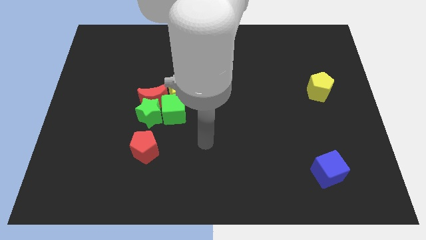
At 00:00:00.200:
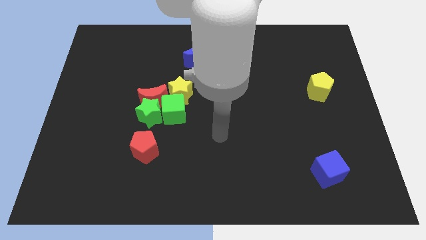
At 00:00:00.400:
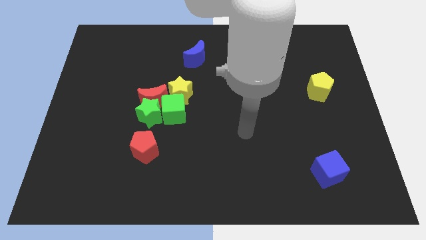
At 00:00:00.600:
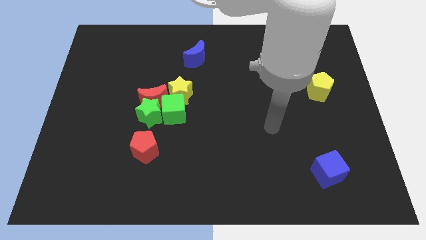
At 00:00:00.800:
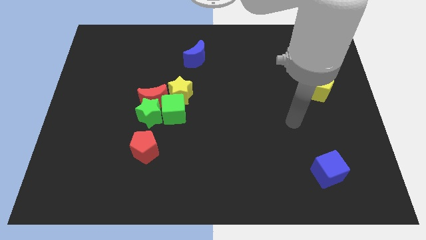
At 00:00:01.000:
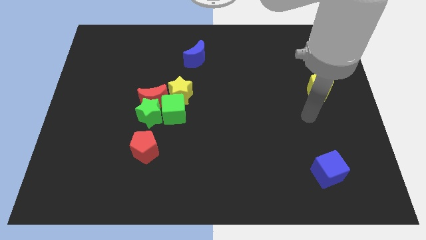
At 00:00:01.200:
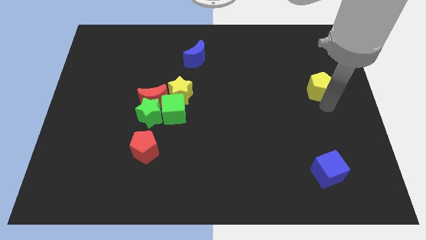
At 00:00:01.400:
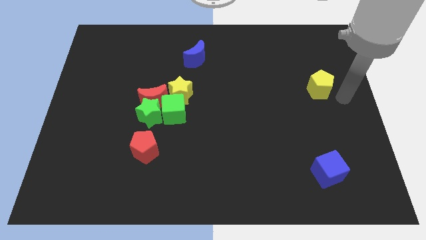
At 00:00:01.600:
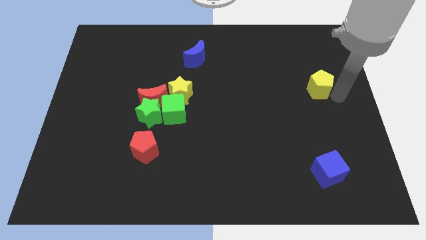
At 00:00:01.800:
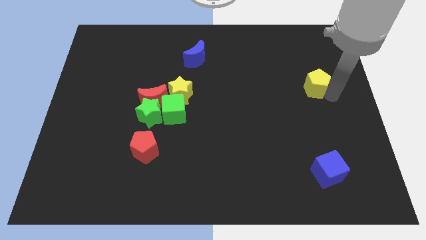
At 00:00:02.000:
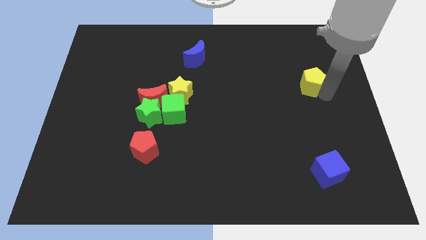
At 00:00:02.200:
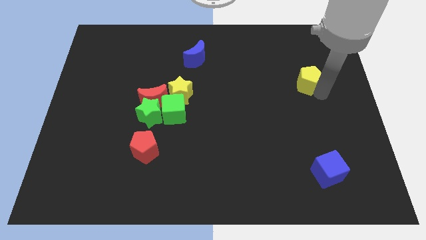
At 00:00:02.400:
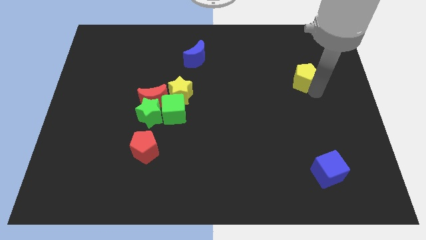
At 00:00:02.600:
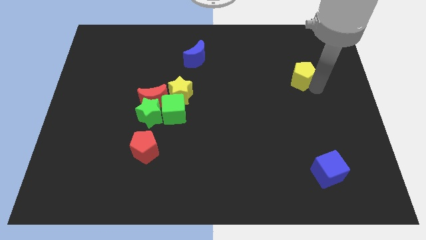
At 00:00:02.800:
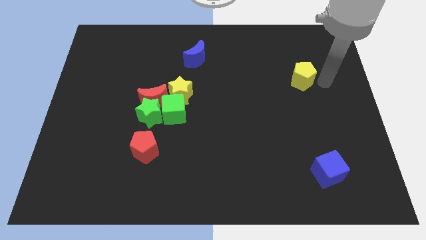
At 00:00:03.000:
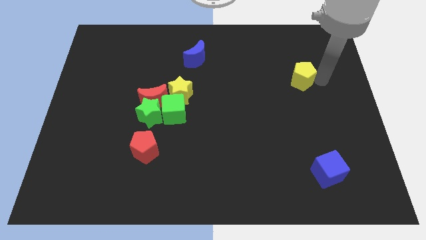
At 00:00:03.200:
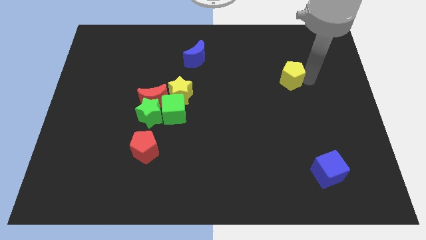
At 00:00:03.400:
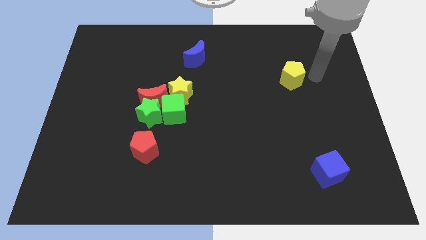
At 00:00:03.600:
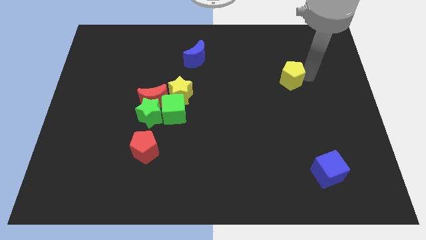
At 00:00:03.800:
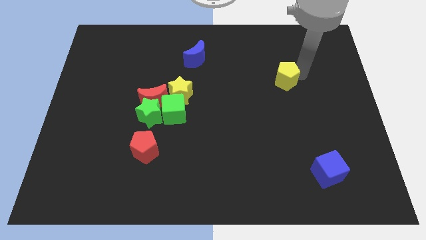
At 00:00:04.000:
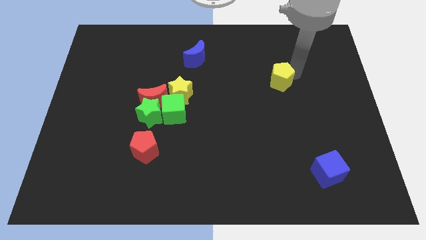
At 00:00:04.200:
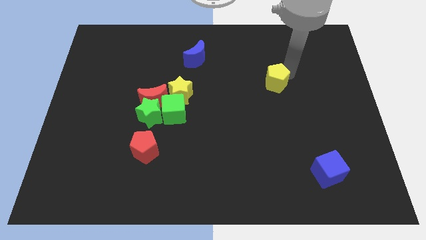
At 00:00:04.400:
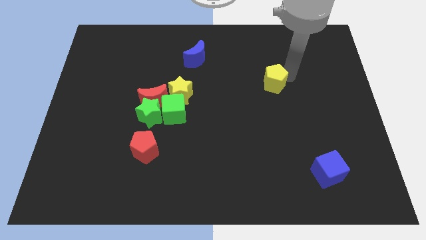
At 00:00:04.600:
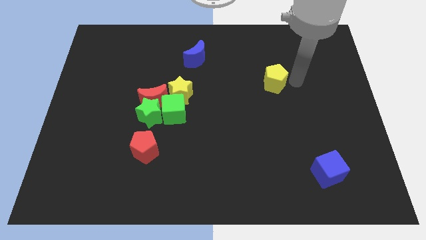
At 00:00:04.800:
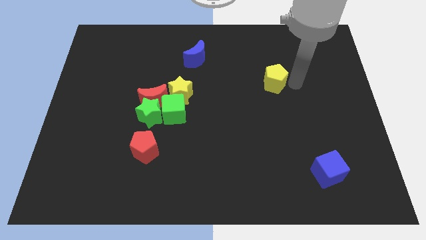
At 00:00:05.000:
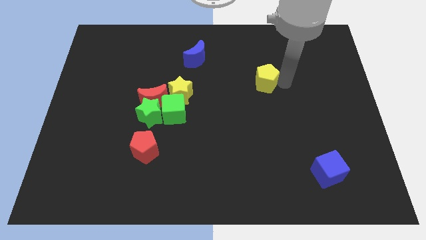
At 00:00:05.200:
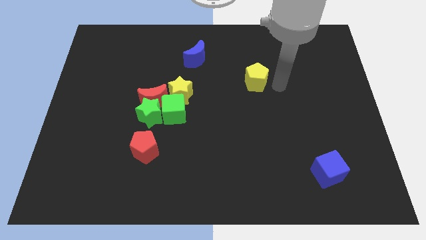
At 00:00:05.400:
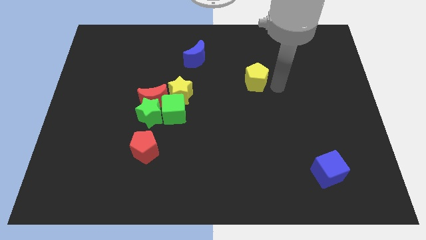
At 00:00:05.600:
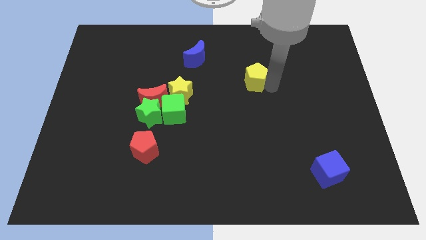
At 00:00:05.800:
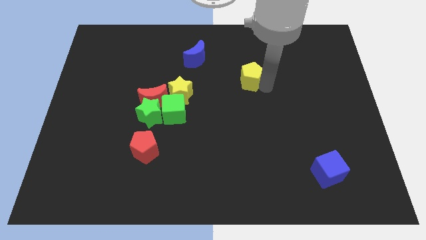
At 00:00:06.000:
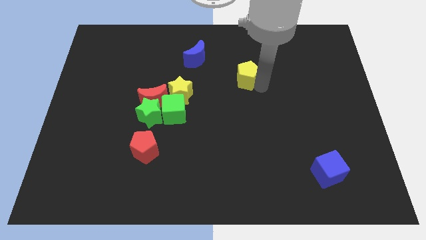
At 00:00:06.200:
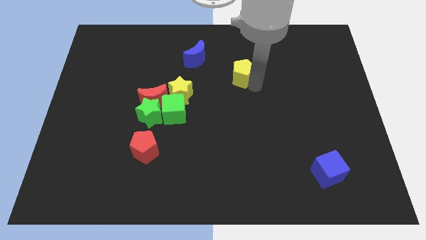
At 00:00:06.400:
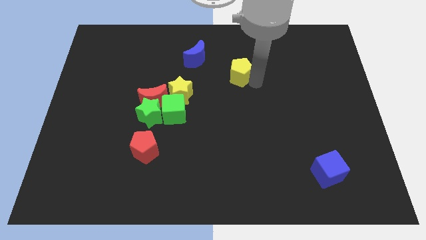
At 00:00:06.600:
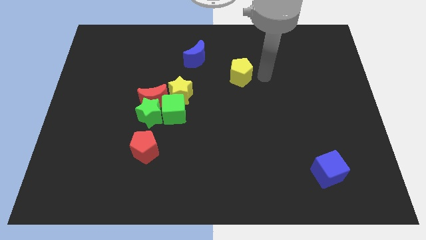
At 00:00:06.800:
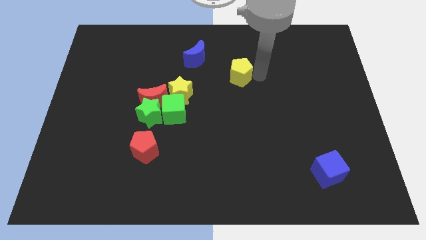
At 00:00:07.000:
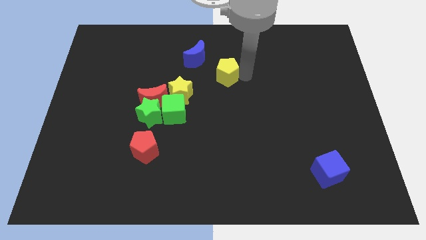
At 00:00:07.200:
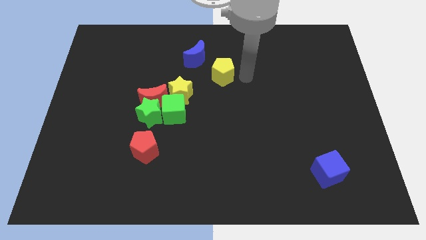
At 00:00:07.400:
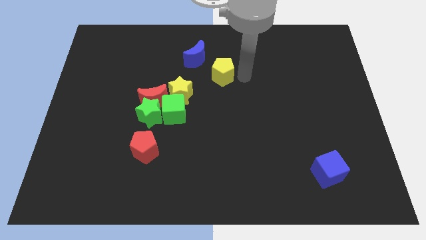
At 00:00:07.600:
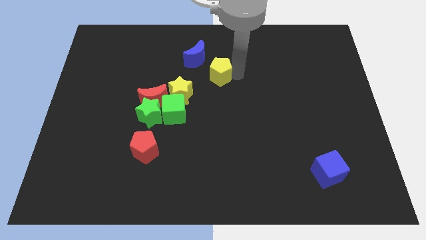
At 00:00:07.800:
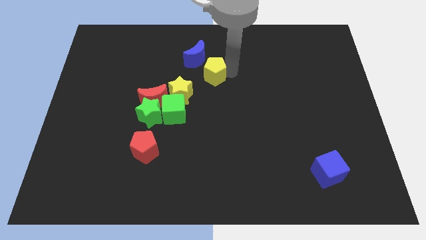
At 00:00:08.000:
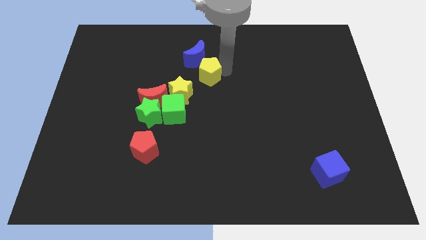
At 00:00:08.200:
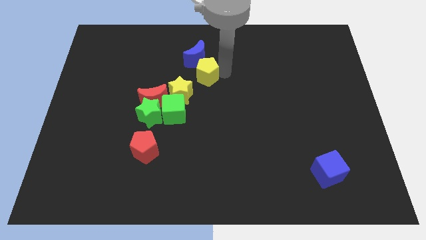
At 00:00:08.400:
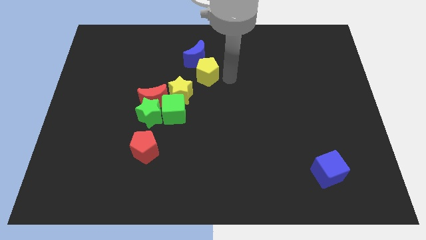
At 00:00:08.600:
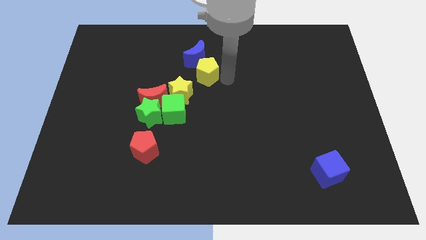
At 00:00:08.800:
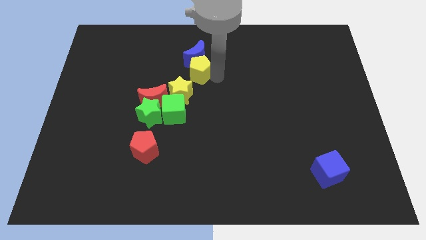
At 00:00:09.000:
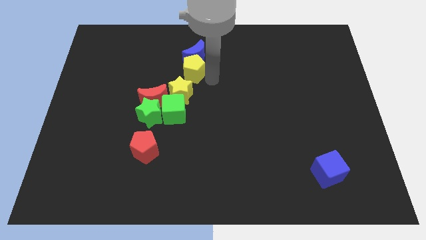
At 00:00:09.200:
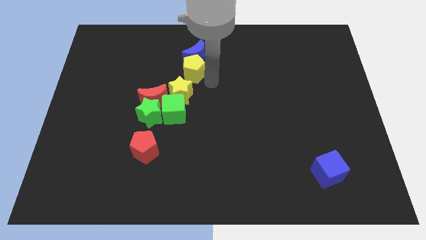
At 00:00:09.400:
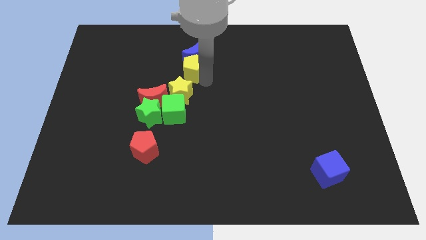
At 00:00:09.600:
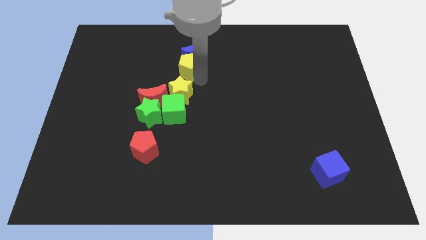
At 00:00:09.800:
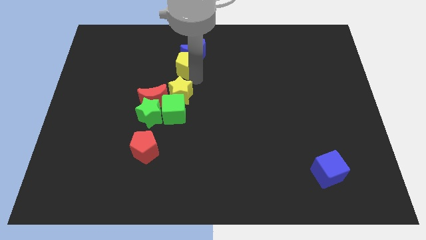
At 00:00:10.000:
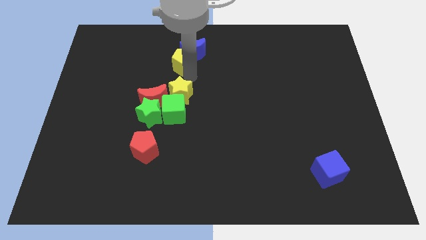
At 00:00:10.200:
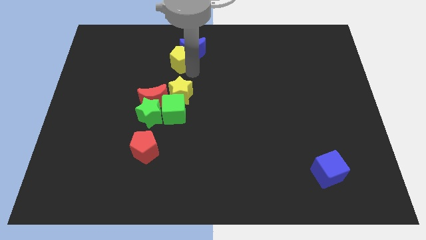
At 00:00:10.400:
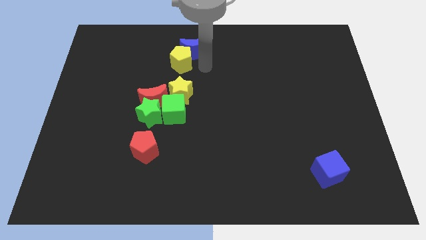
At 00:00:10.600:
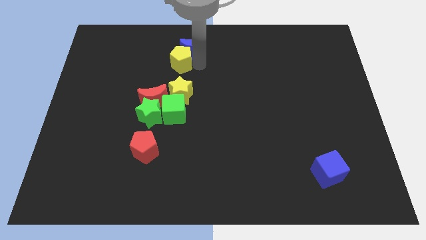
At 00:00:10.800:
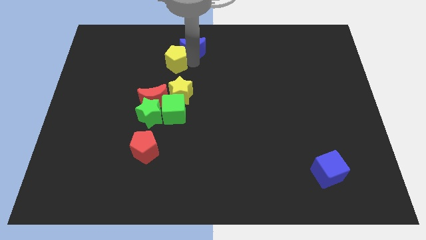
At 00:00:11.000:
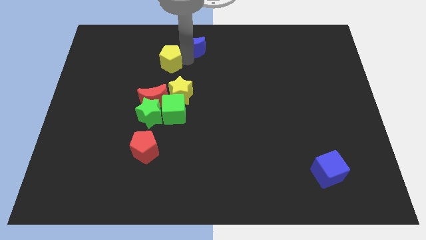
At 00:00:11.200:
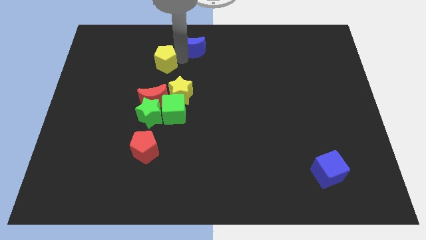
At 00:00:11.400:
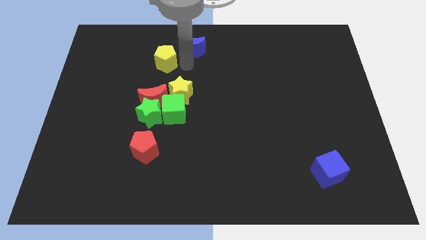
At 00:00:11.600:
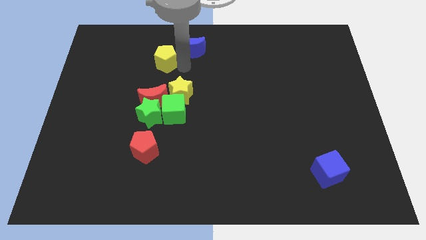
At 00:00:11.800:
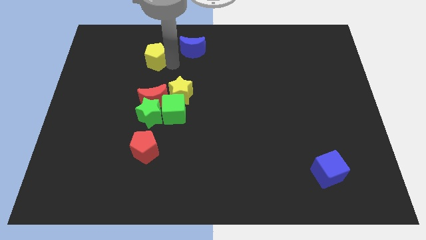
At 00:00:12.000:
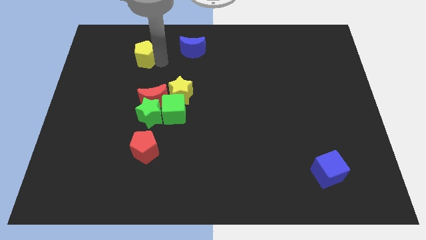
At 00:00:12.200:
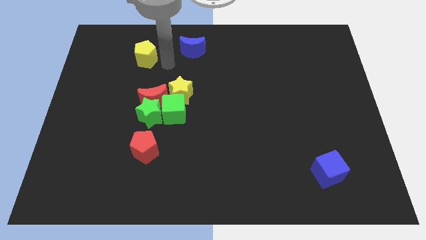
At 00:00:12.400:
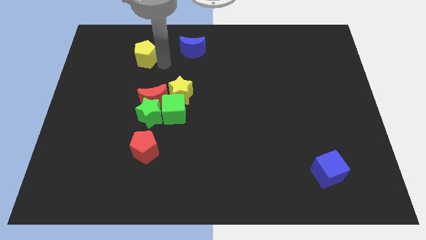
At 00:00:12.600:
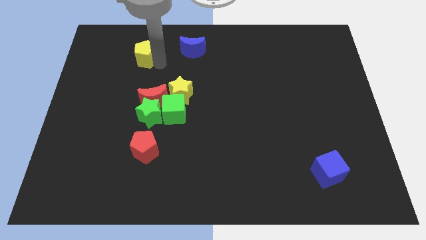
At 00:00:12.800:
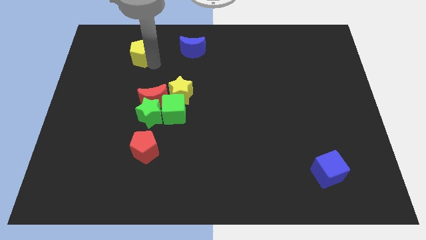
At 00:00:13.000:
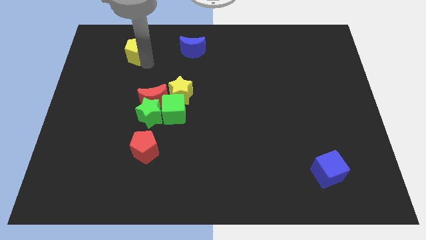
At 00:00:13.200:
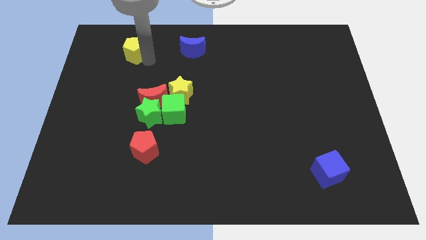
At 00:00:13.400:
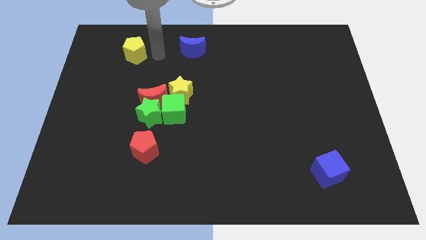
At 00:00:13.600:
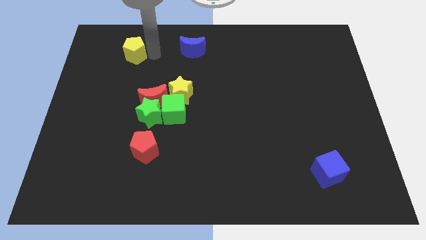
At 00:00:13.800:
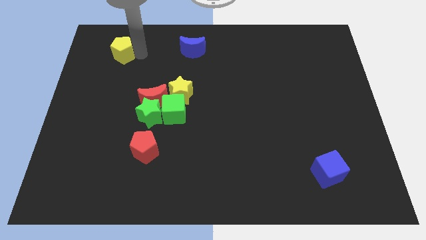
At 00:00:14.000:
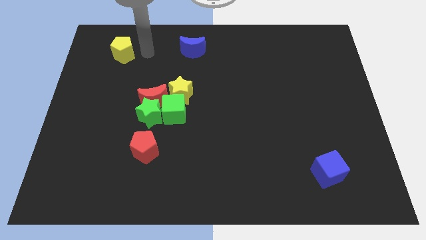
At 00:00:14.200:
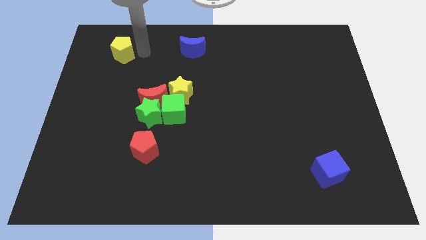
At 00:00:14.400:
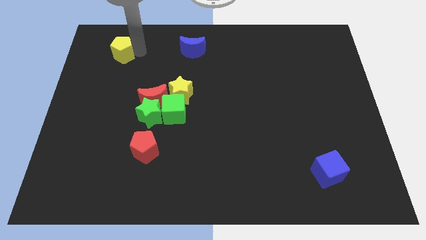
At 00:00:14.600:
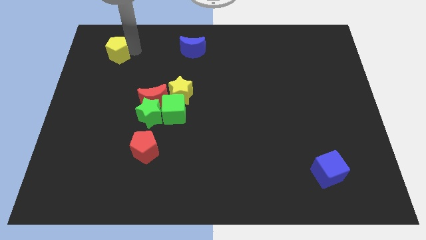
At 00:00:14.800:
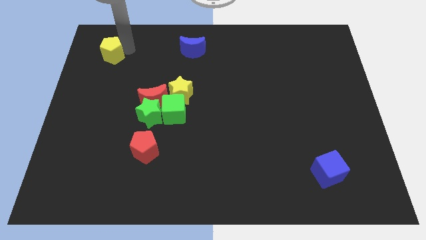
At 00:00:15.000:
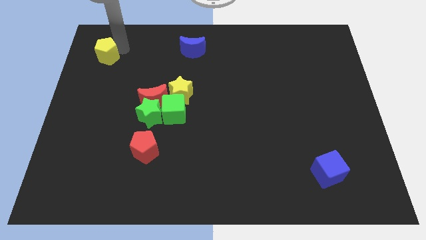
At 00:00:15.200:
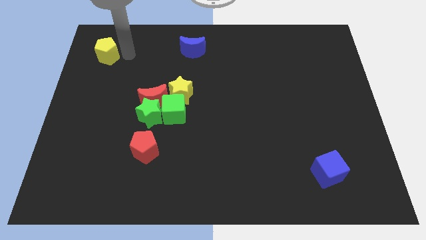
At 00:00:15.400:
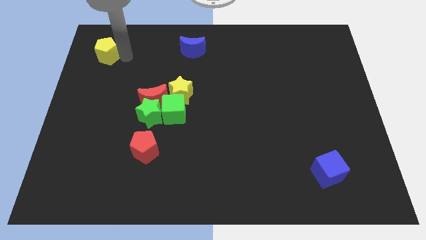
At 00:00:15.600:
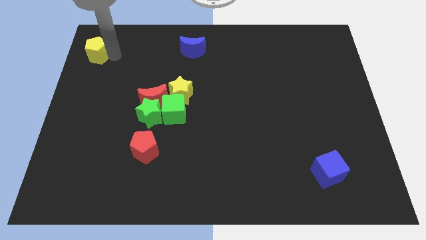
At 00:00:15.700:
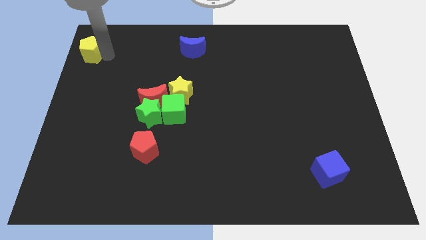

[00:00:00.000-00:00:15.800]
put the yellow pentagon to the top left
